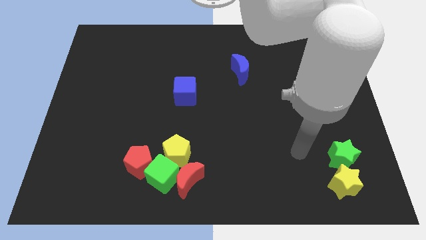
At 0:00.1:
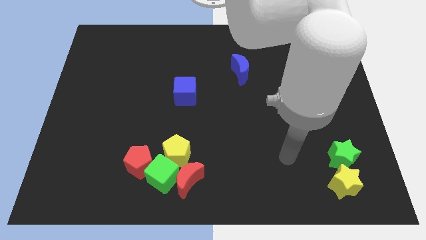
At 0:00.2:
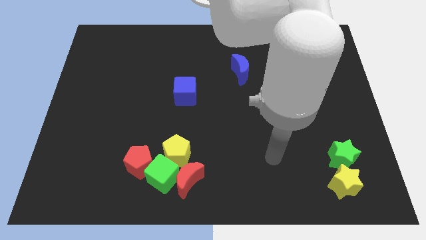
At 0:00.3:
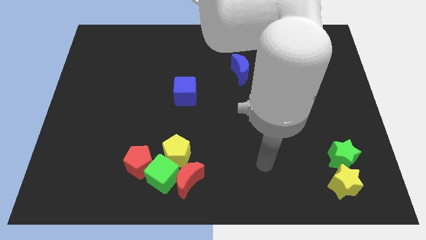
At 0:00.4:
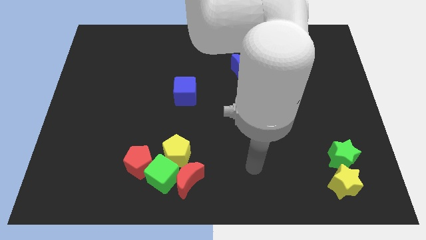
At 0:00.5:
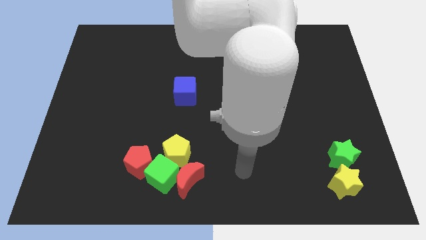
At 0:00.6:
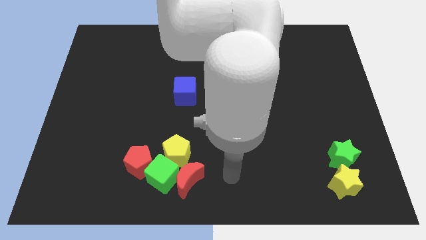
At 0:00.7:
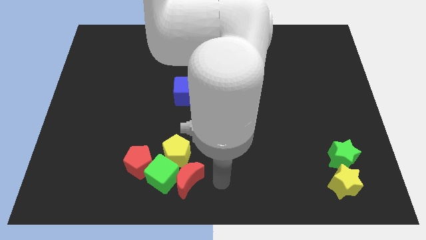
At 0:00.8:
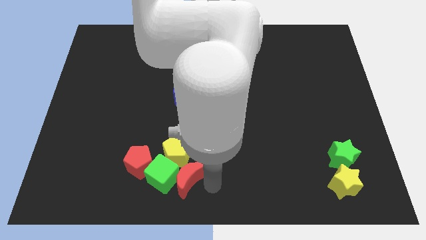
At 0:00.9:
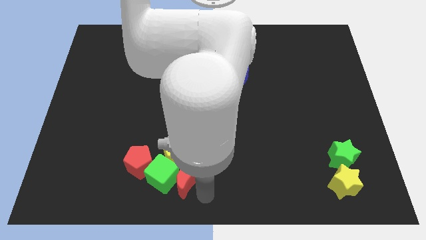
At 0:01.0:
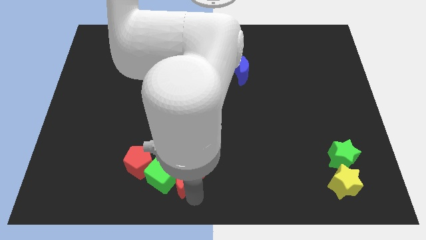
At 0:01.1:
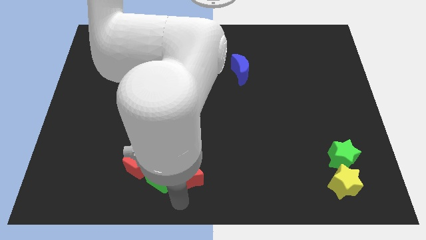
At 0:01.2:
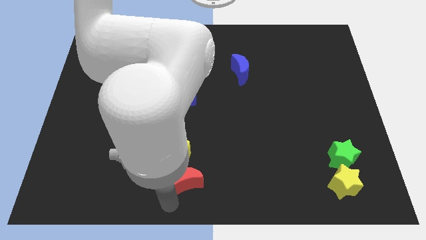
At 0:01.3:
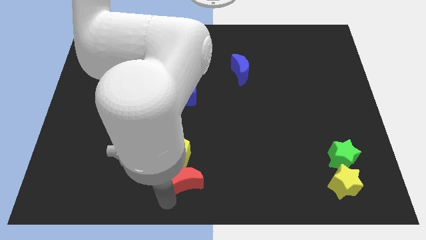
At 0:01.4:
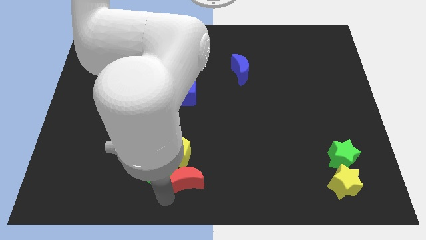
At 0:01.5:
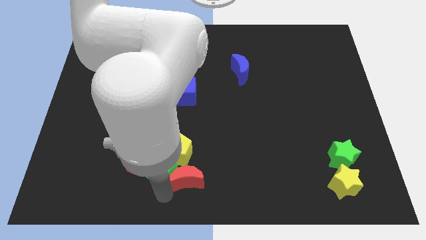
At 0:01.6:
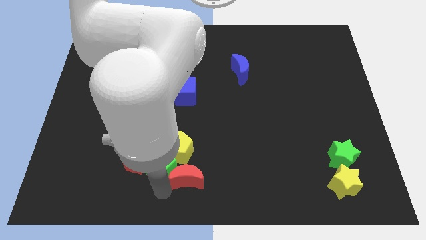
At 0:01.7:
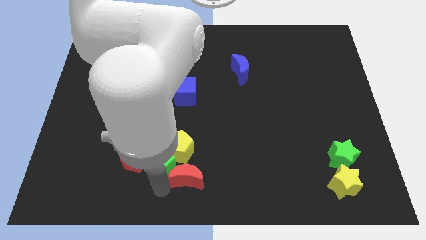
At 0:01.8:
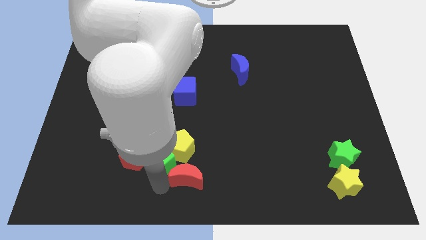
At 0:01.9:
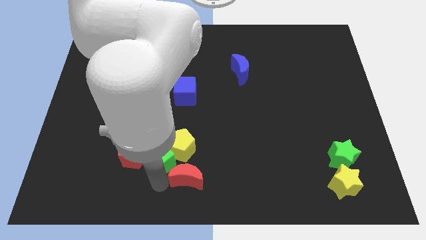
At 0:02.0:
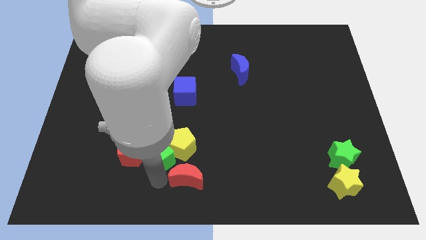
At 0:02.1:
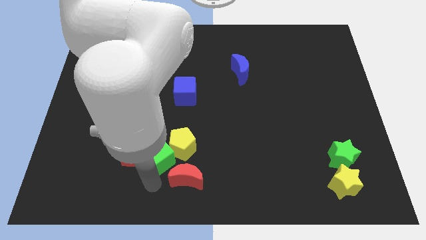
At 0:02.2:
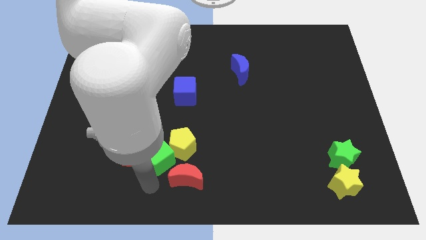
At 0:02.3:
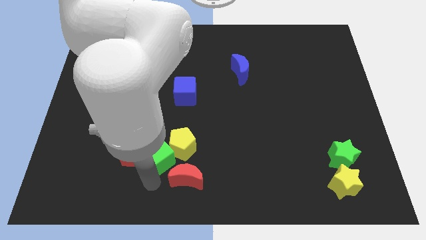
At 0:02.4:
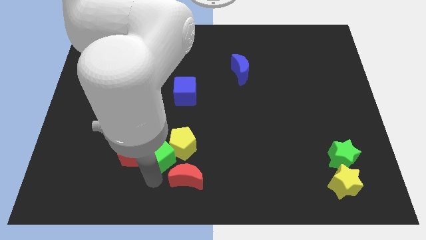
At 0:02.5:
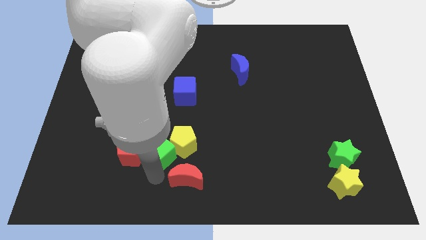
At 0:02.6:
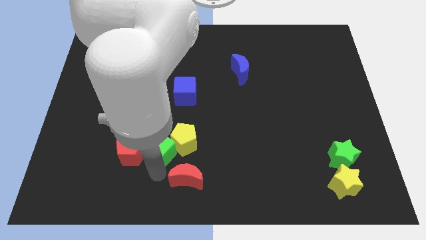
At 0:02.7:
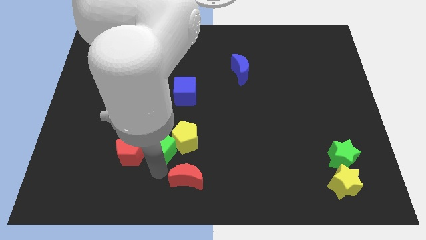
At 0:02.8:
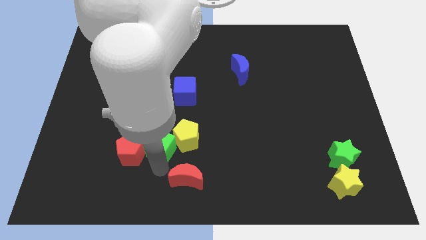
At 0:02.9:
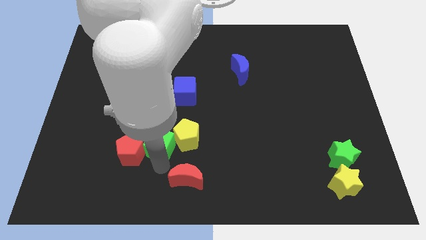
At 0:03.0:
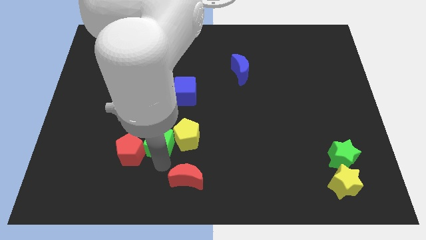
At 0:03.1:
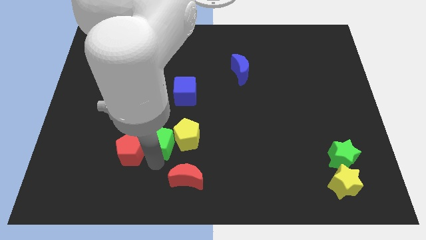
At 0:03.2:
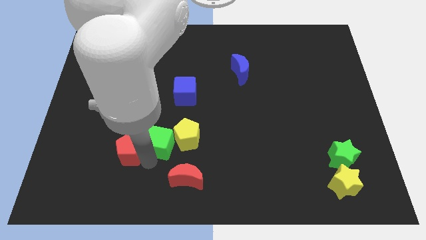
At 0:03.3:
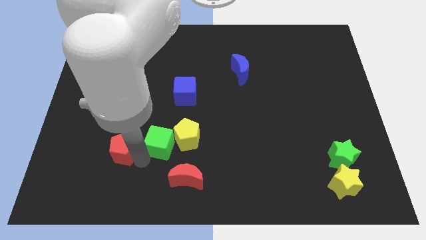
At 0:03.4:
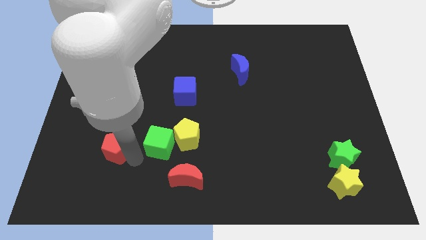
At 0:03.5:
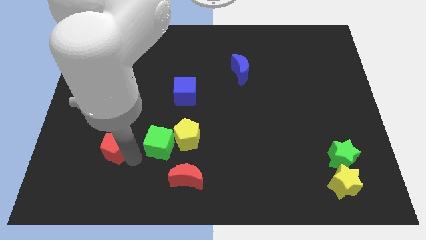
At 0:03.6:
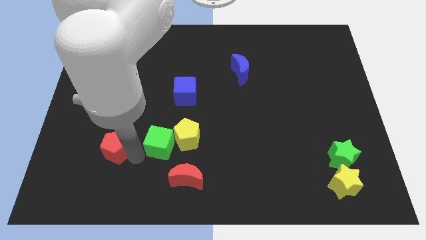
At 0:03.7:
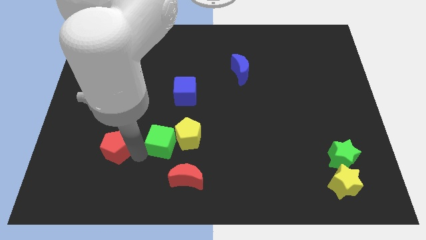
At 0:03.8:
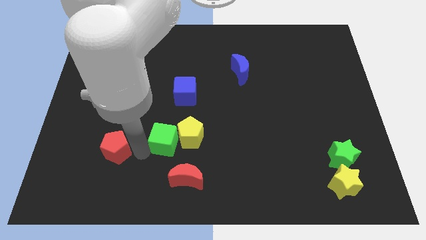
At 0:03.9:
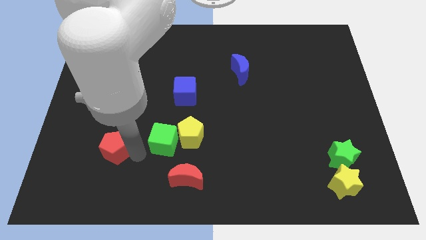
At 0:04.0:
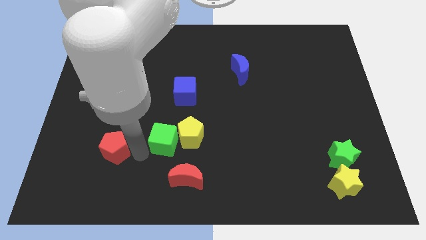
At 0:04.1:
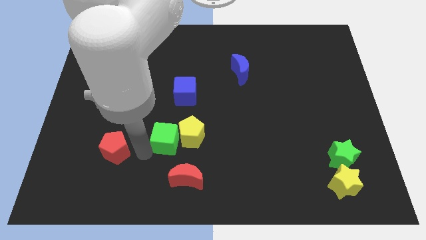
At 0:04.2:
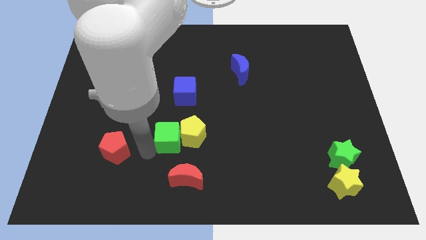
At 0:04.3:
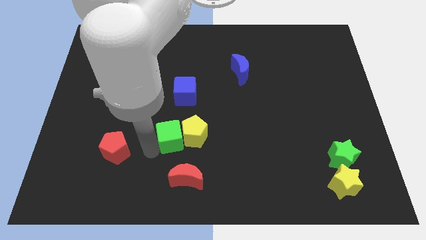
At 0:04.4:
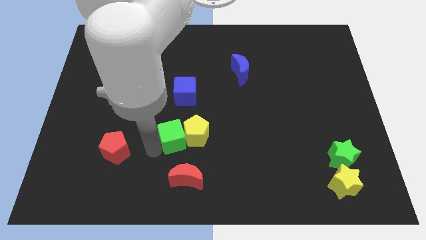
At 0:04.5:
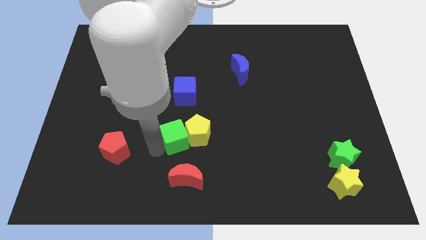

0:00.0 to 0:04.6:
push the green cube diagonally up and right a little bit

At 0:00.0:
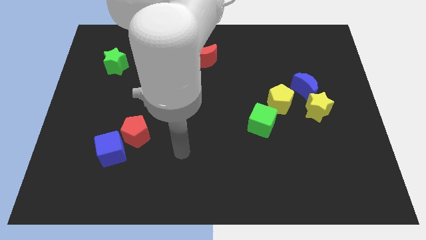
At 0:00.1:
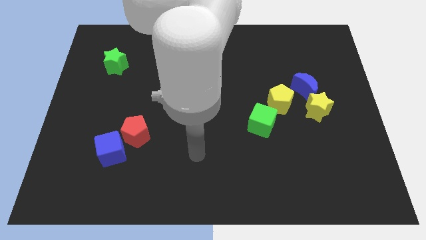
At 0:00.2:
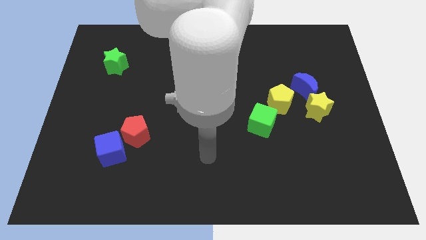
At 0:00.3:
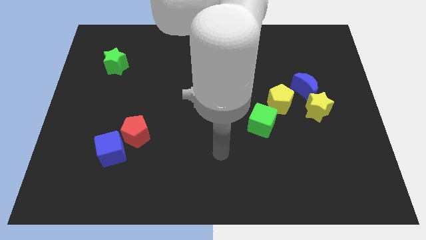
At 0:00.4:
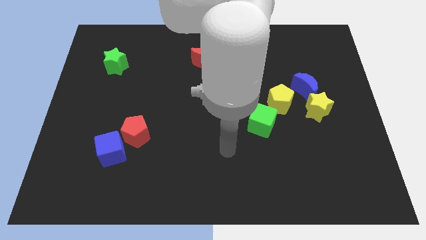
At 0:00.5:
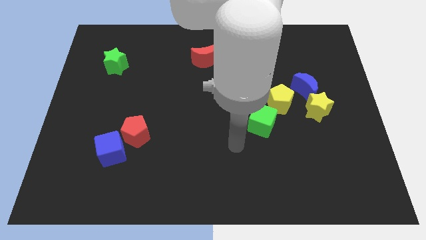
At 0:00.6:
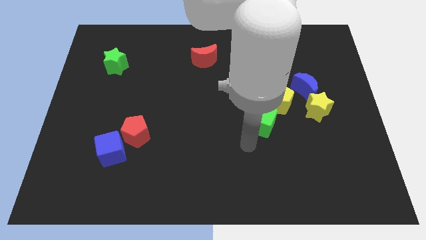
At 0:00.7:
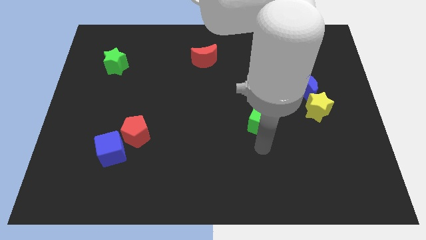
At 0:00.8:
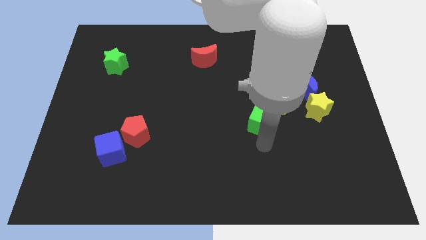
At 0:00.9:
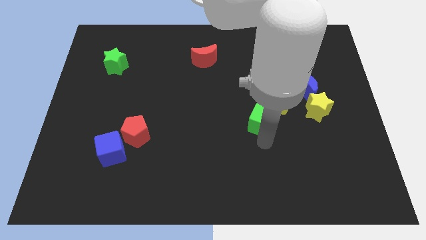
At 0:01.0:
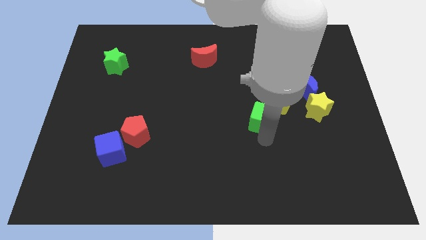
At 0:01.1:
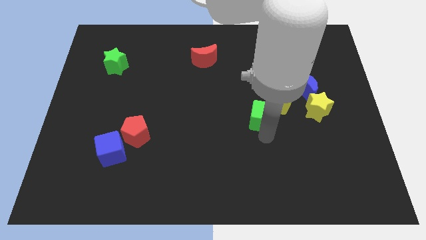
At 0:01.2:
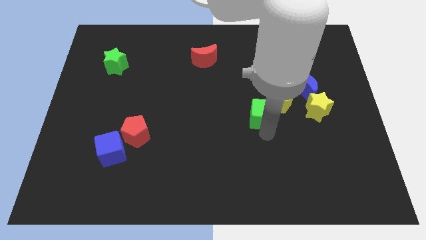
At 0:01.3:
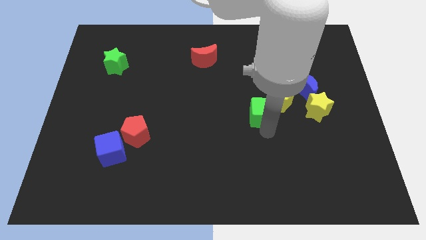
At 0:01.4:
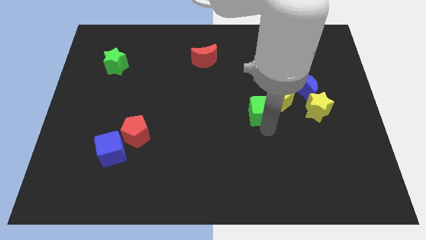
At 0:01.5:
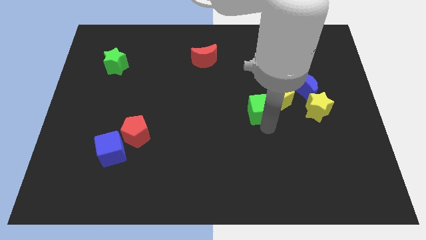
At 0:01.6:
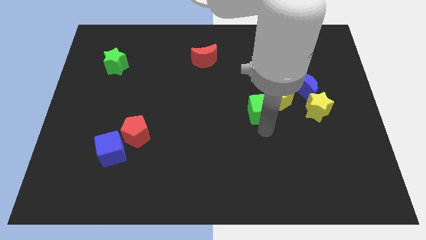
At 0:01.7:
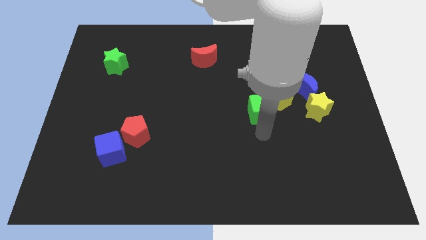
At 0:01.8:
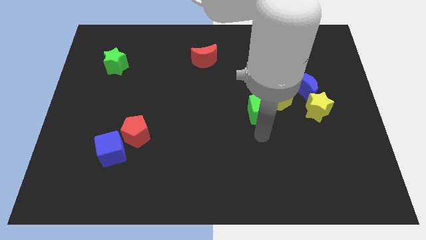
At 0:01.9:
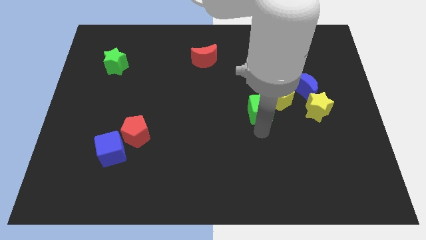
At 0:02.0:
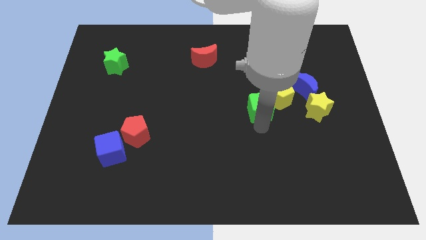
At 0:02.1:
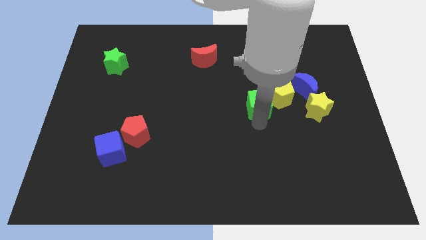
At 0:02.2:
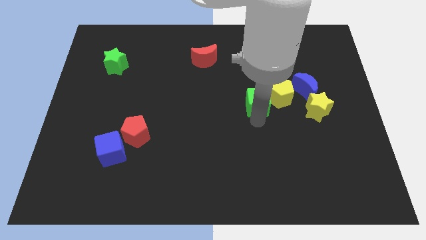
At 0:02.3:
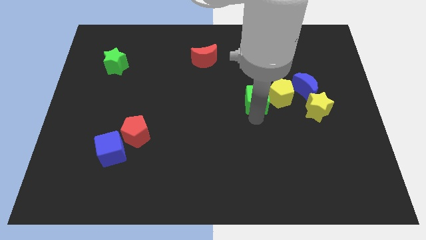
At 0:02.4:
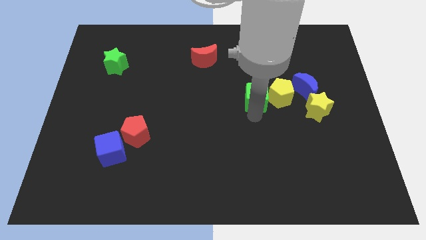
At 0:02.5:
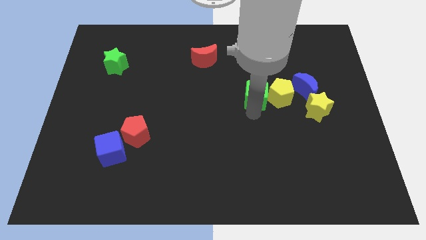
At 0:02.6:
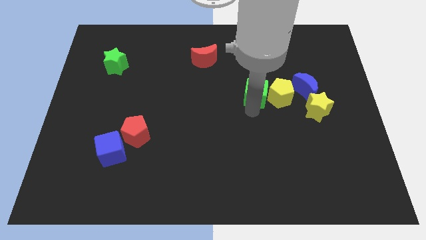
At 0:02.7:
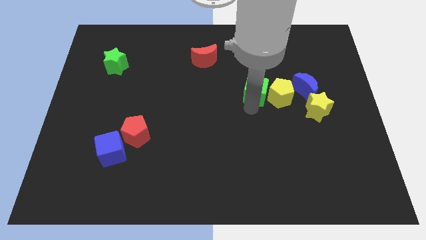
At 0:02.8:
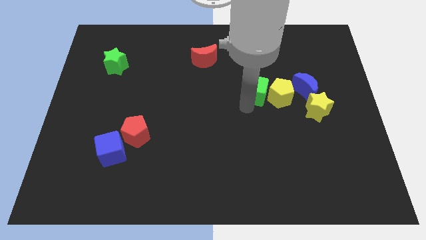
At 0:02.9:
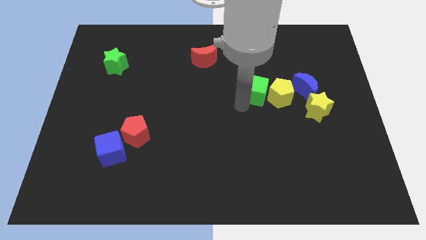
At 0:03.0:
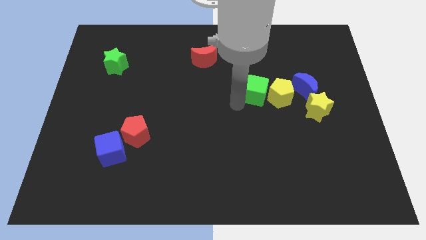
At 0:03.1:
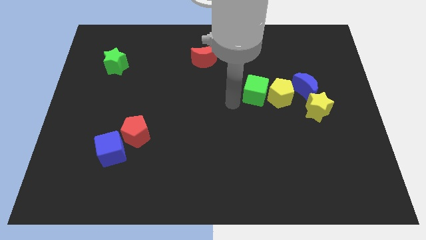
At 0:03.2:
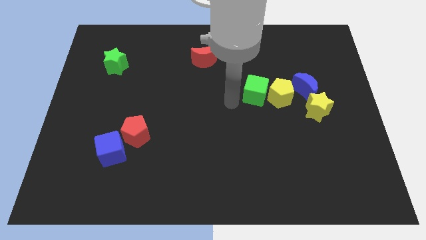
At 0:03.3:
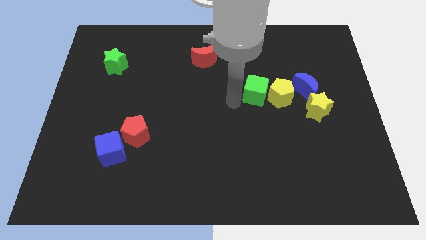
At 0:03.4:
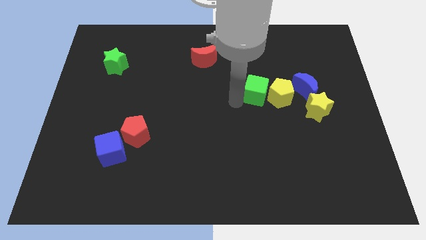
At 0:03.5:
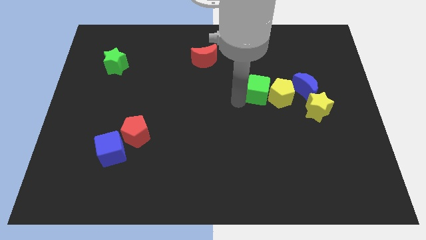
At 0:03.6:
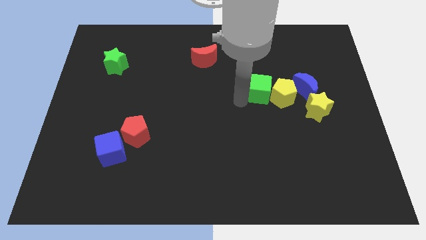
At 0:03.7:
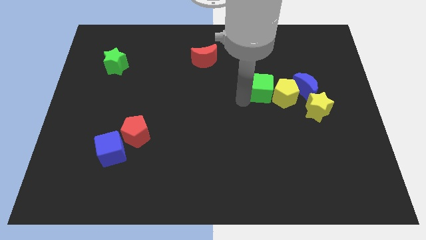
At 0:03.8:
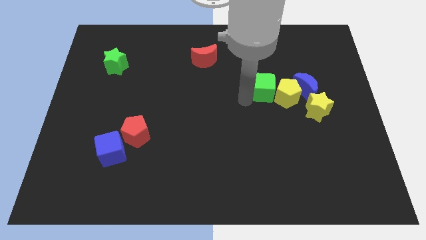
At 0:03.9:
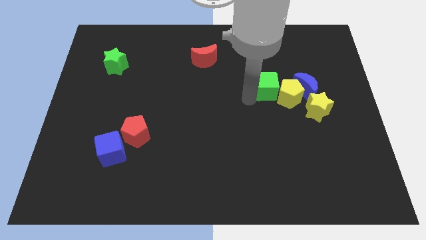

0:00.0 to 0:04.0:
slide the green cube a little up and then right
